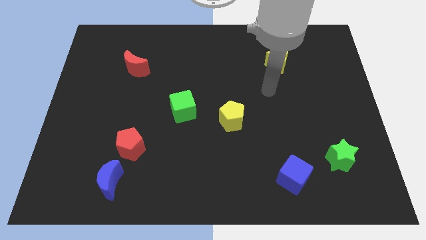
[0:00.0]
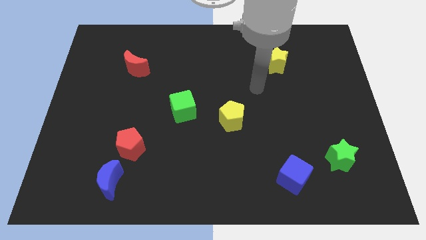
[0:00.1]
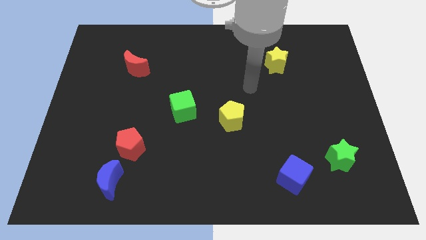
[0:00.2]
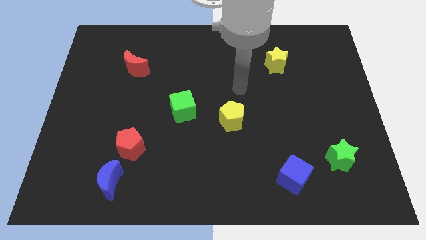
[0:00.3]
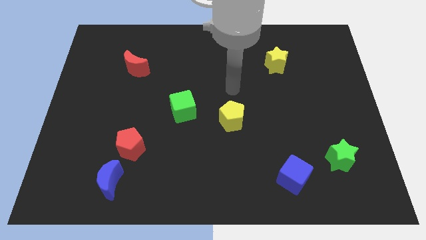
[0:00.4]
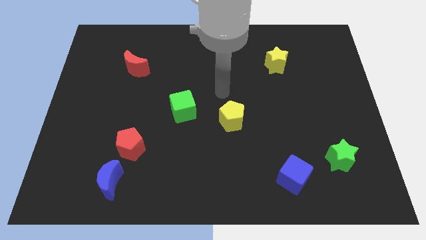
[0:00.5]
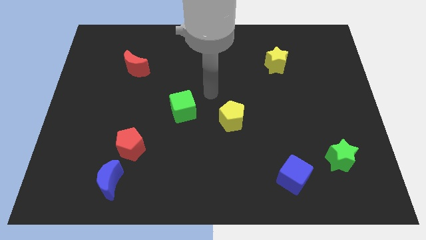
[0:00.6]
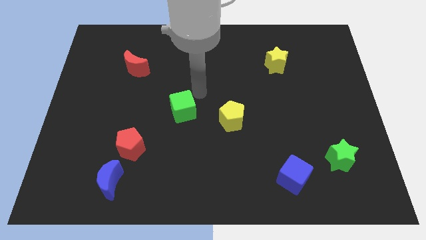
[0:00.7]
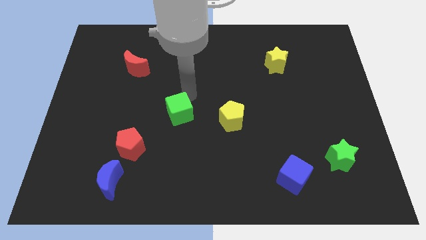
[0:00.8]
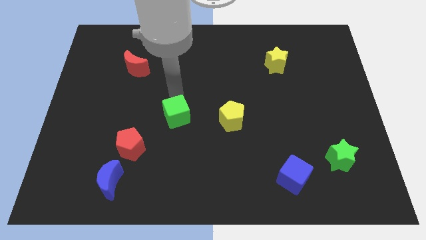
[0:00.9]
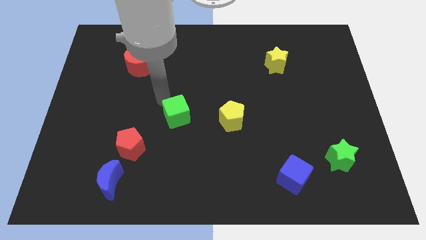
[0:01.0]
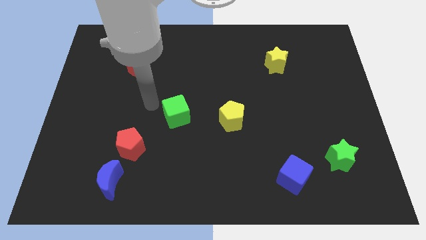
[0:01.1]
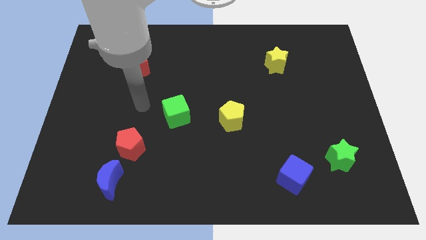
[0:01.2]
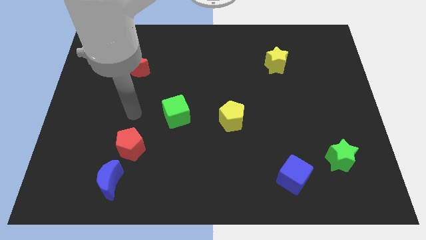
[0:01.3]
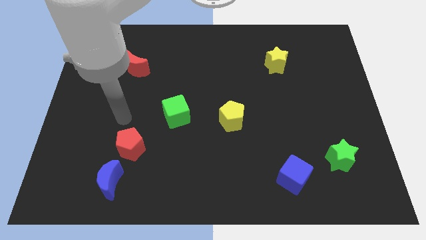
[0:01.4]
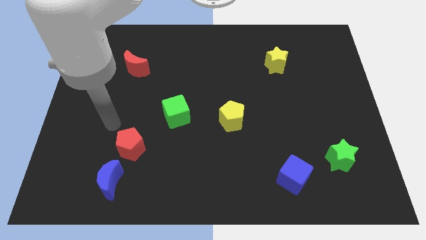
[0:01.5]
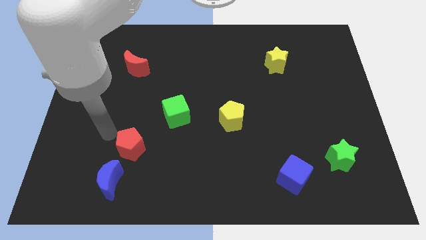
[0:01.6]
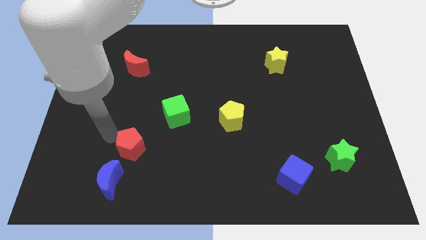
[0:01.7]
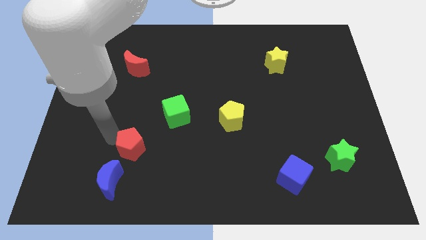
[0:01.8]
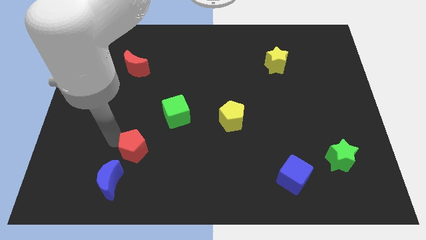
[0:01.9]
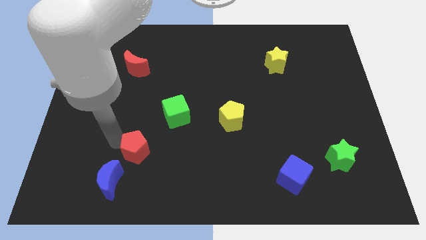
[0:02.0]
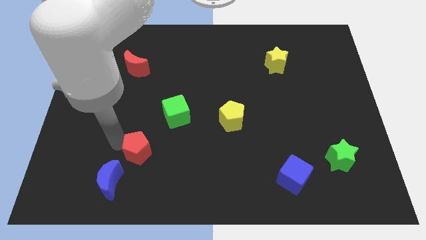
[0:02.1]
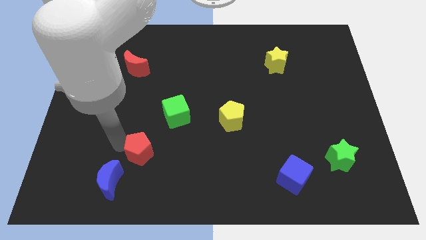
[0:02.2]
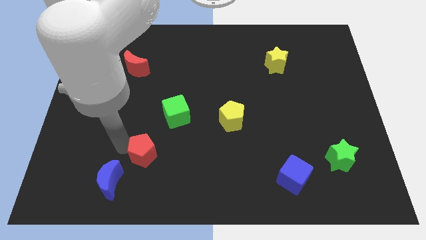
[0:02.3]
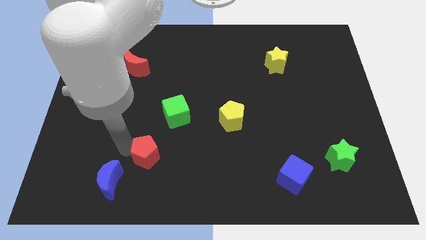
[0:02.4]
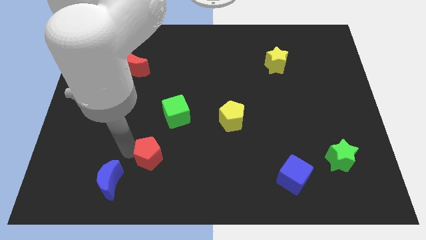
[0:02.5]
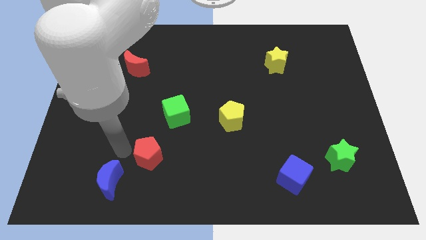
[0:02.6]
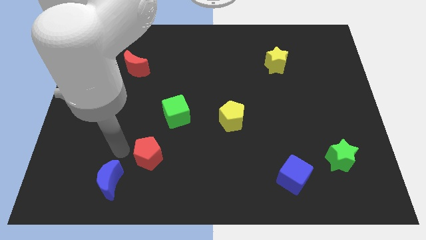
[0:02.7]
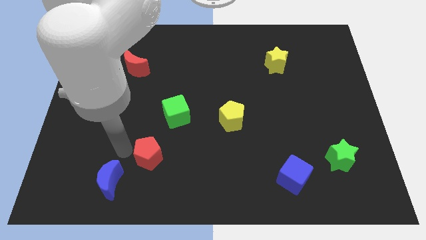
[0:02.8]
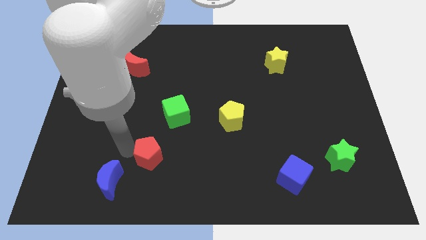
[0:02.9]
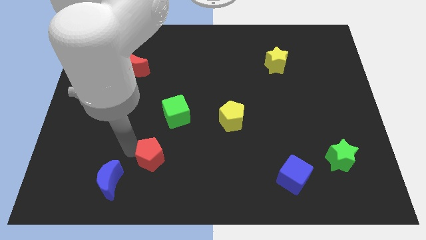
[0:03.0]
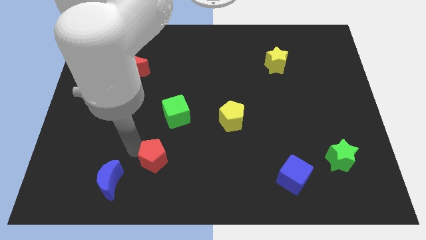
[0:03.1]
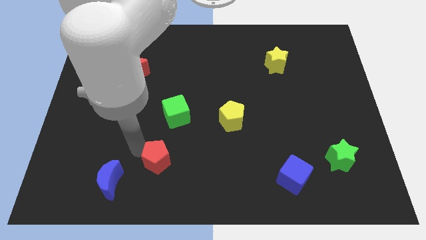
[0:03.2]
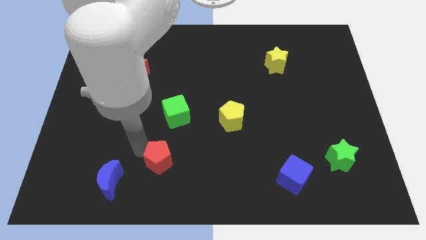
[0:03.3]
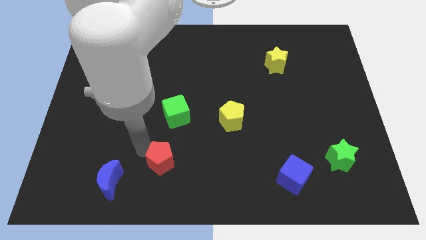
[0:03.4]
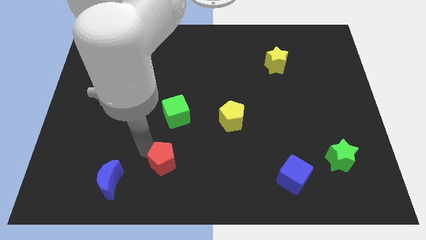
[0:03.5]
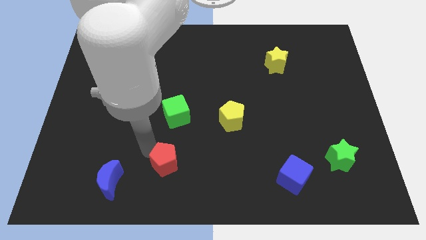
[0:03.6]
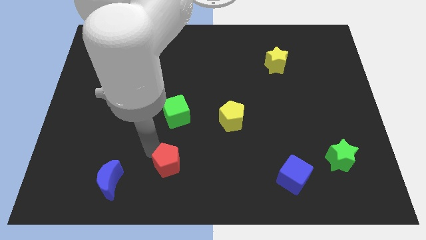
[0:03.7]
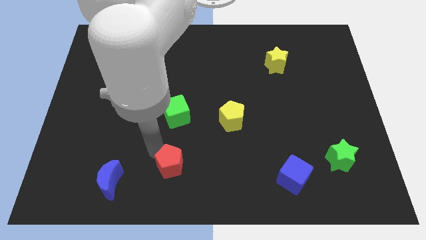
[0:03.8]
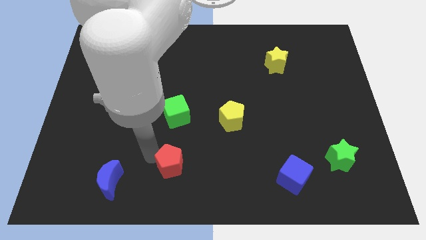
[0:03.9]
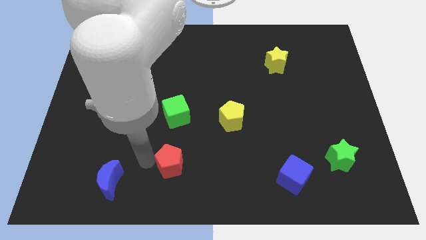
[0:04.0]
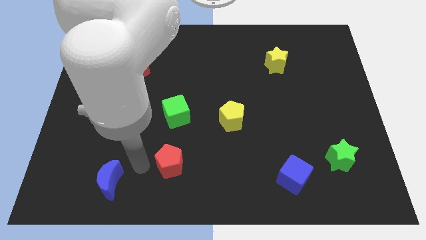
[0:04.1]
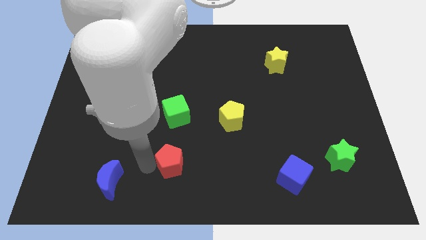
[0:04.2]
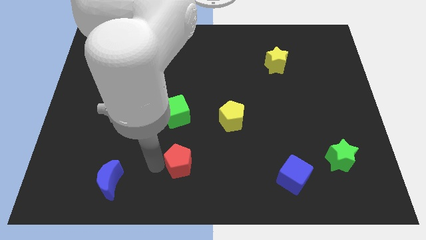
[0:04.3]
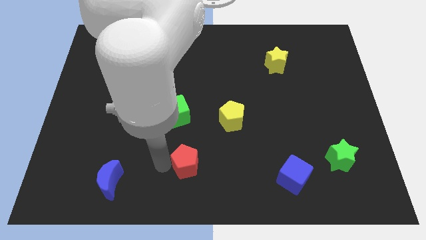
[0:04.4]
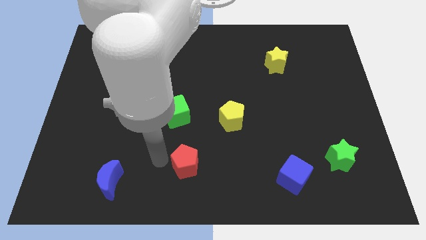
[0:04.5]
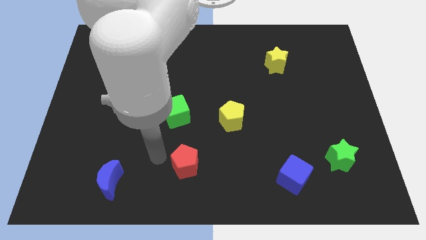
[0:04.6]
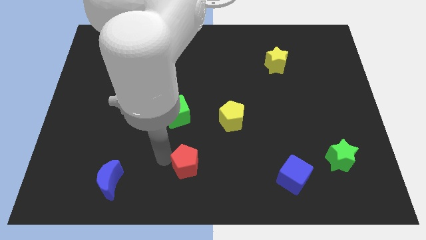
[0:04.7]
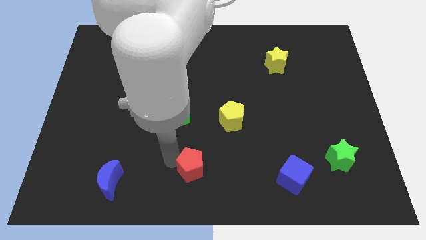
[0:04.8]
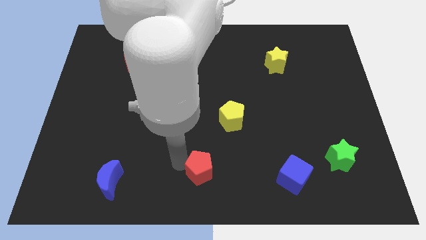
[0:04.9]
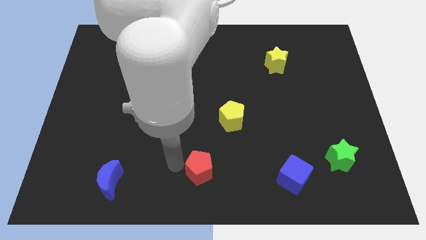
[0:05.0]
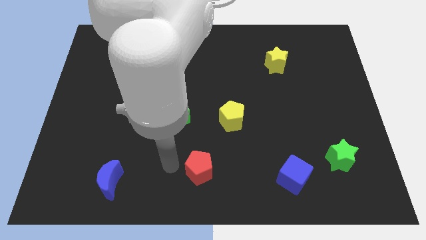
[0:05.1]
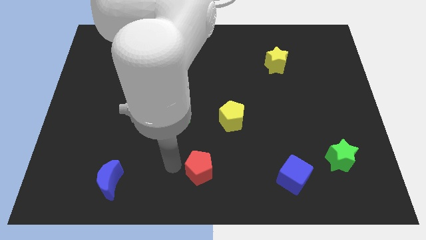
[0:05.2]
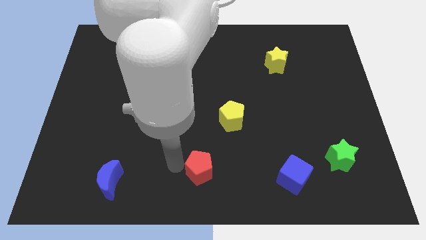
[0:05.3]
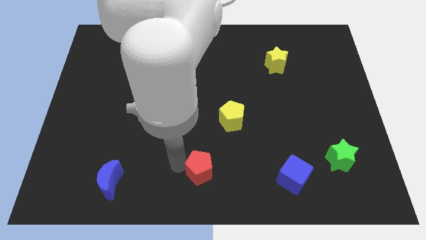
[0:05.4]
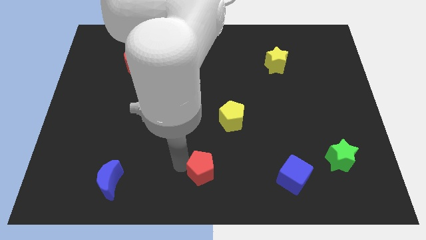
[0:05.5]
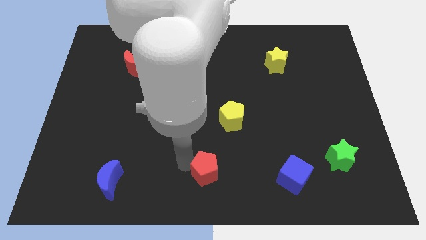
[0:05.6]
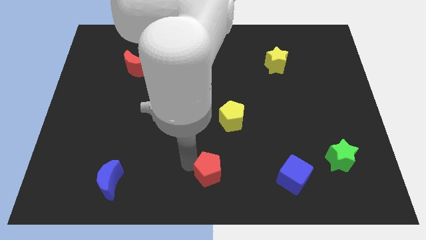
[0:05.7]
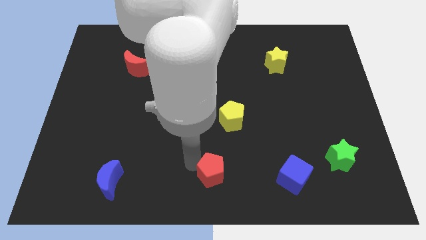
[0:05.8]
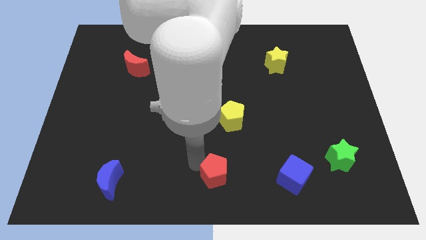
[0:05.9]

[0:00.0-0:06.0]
put the red pentagon to the left of the blue cube

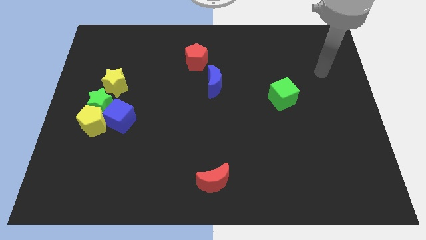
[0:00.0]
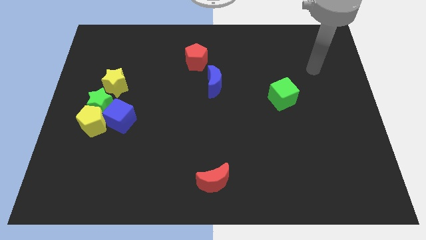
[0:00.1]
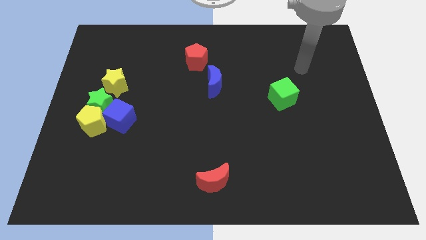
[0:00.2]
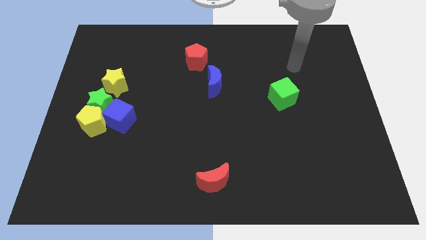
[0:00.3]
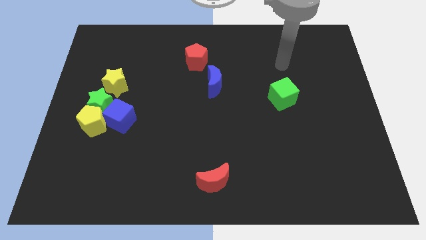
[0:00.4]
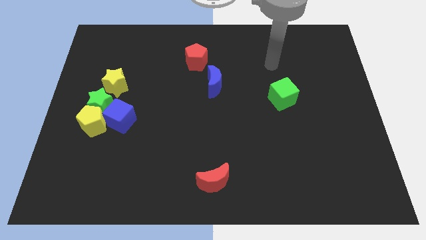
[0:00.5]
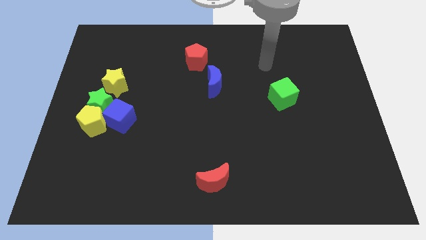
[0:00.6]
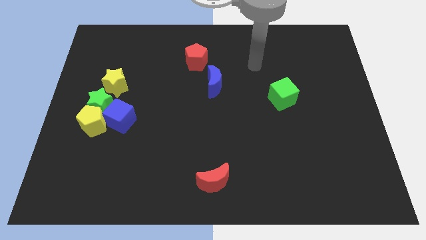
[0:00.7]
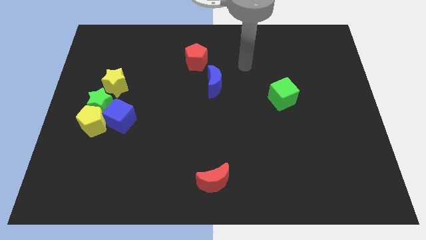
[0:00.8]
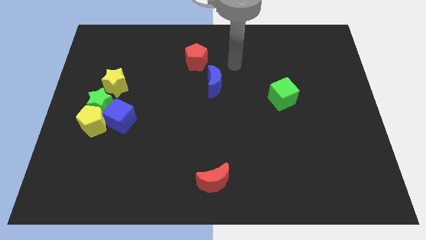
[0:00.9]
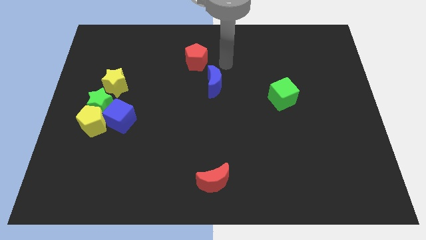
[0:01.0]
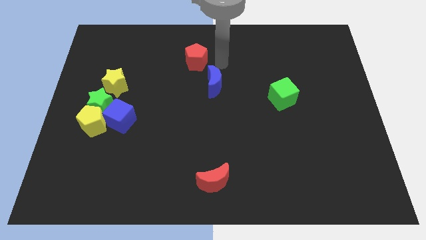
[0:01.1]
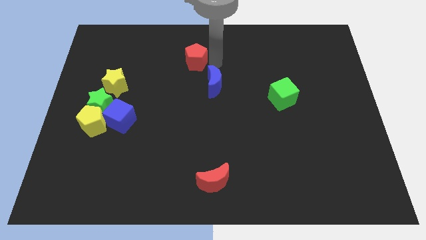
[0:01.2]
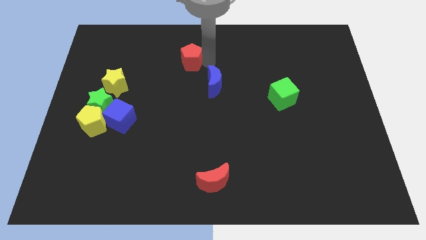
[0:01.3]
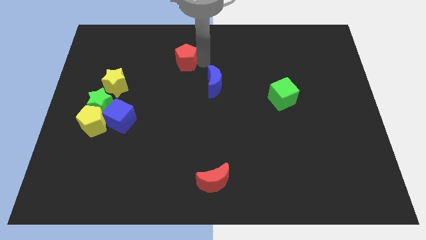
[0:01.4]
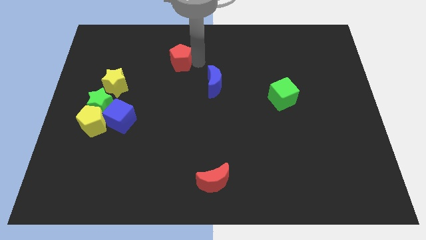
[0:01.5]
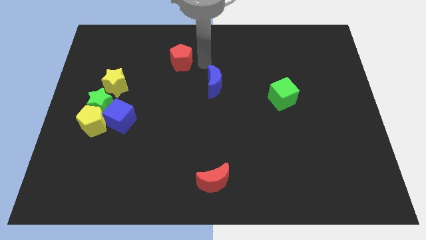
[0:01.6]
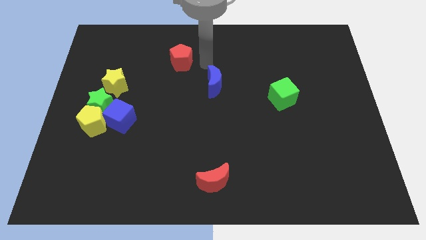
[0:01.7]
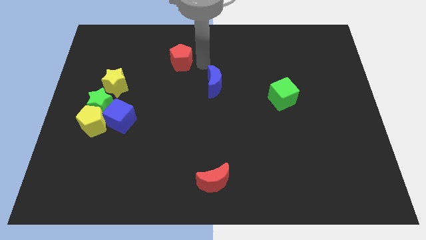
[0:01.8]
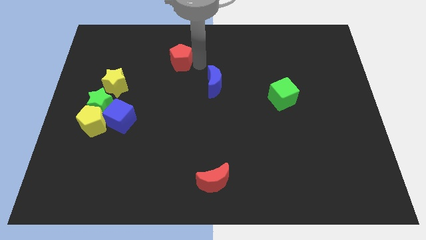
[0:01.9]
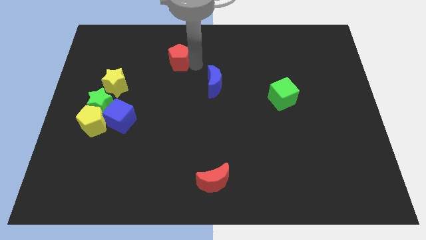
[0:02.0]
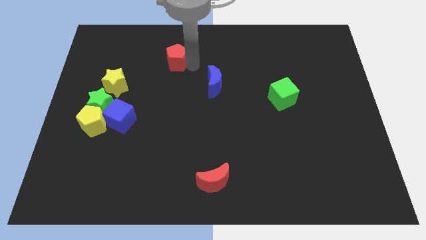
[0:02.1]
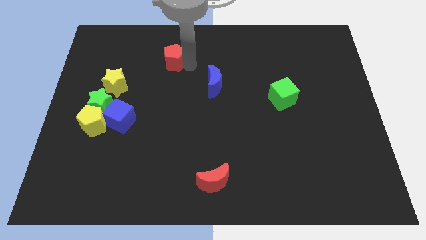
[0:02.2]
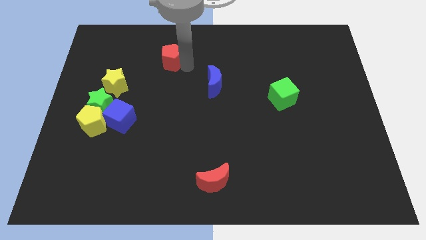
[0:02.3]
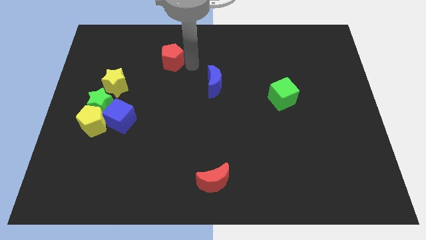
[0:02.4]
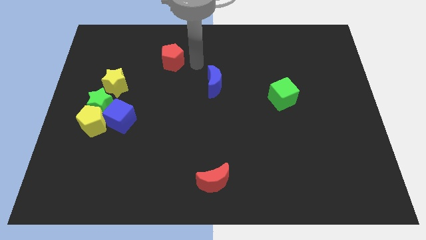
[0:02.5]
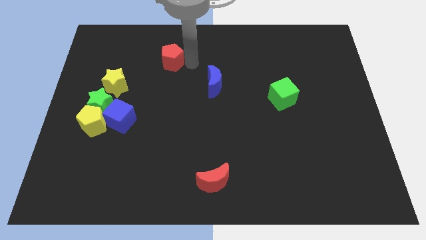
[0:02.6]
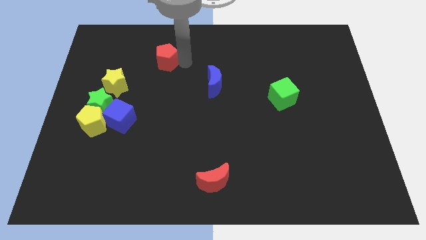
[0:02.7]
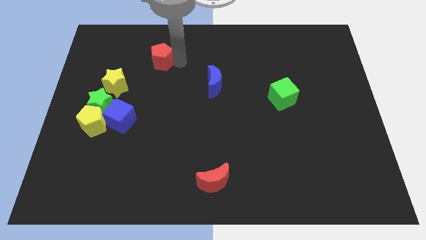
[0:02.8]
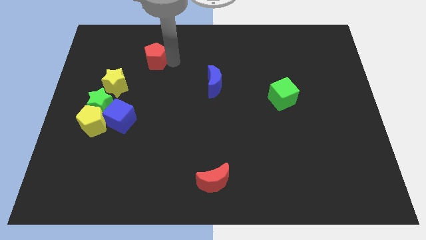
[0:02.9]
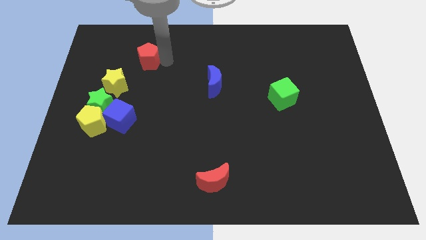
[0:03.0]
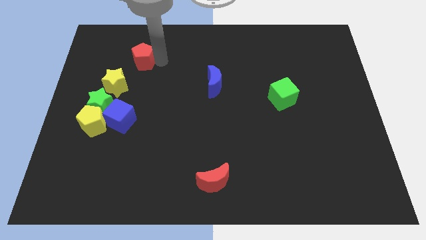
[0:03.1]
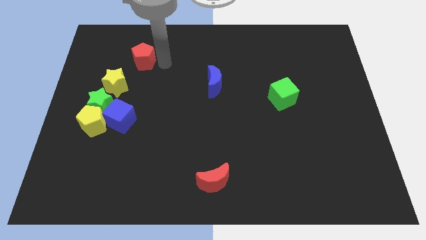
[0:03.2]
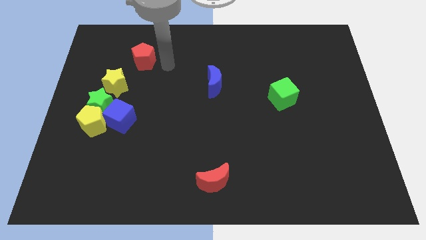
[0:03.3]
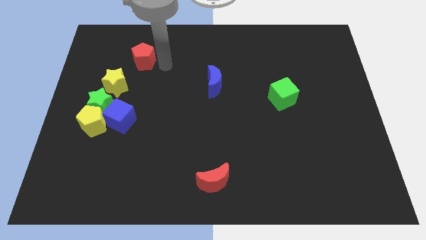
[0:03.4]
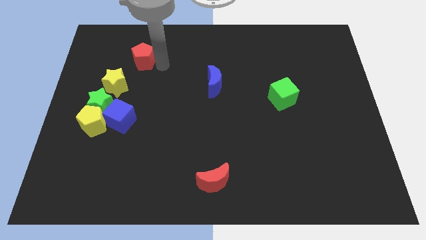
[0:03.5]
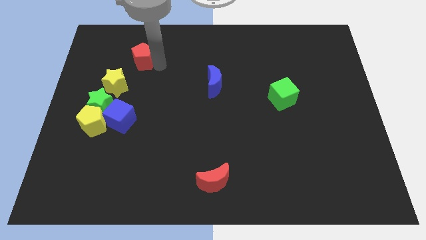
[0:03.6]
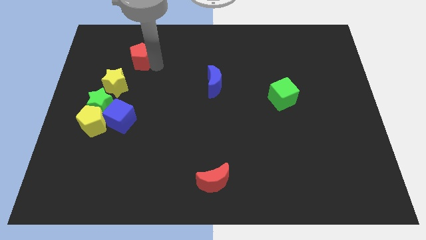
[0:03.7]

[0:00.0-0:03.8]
push the red pentagon above the yellow star
